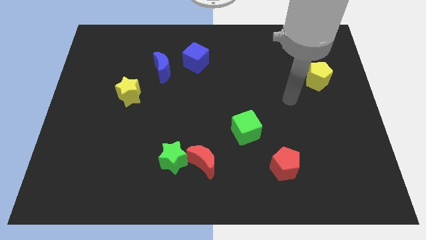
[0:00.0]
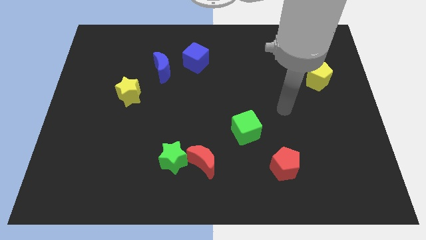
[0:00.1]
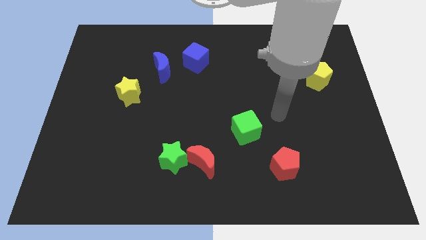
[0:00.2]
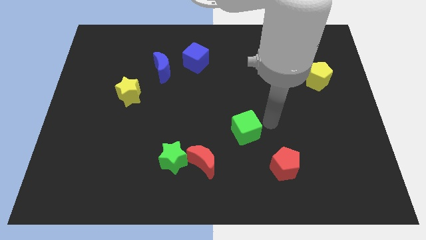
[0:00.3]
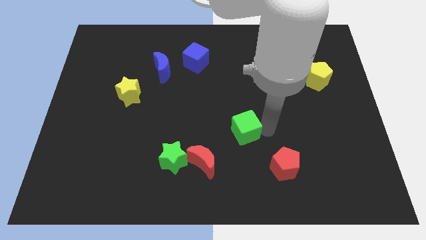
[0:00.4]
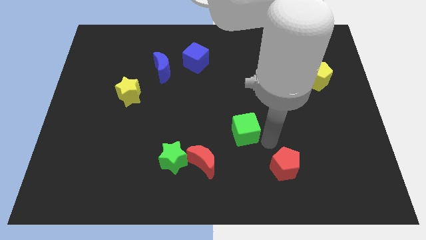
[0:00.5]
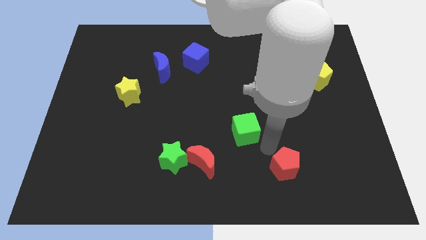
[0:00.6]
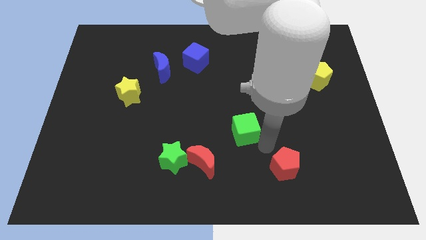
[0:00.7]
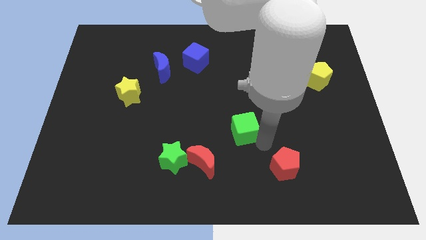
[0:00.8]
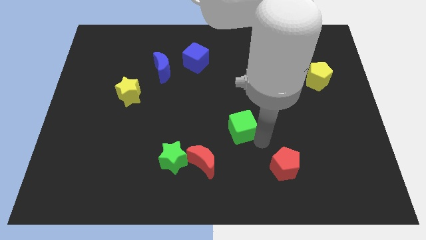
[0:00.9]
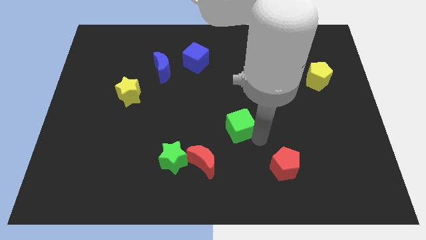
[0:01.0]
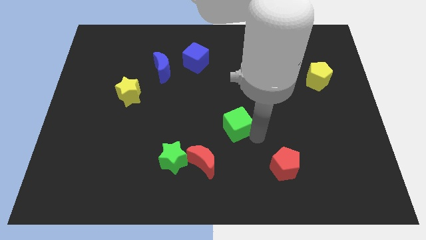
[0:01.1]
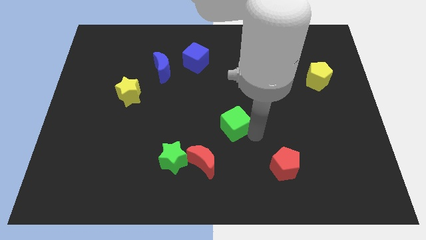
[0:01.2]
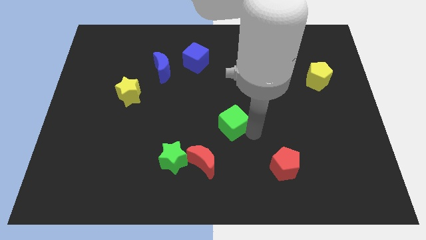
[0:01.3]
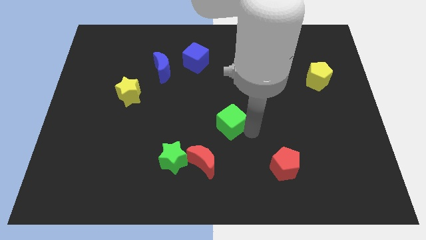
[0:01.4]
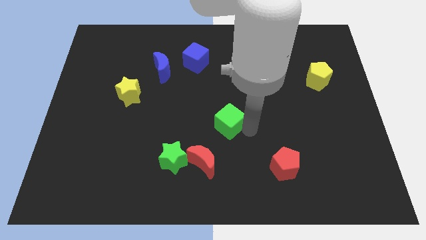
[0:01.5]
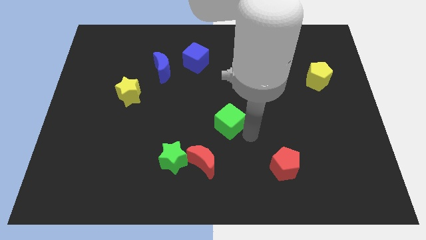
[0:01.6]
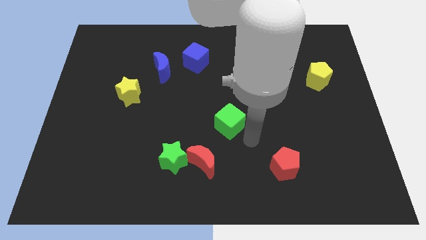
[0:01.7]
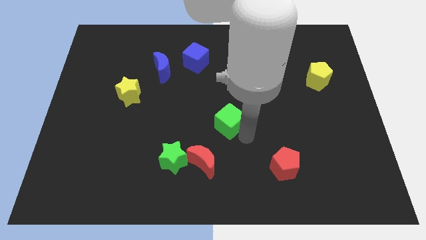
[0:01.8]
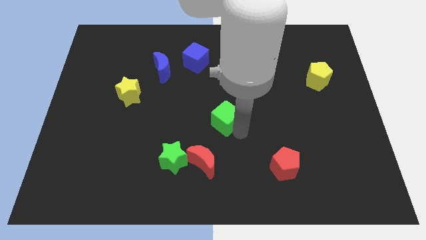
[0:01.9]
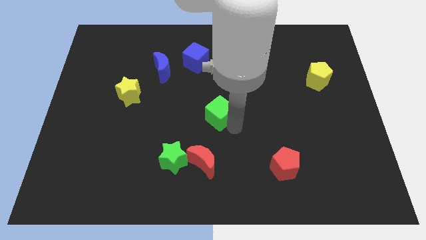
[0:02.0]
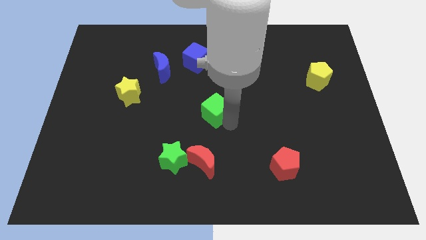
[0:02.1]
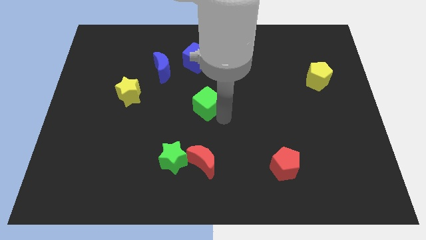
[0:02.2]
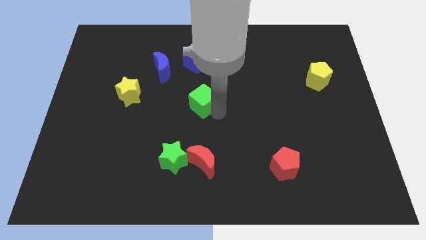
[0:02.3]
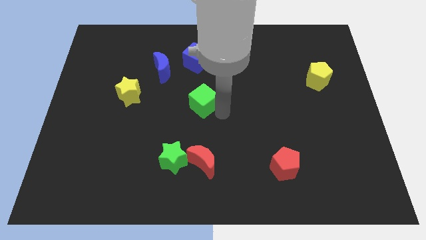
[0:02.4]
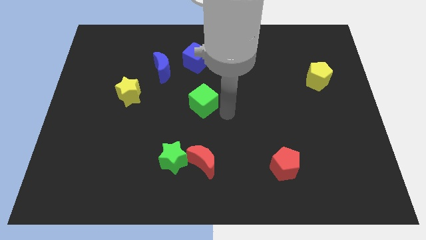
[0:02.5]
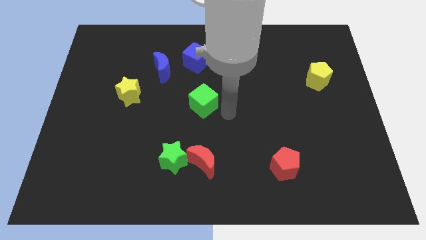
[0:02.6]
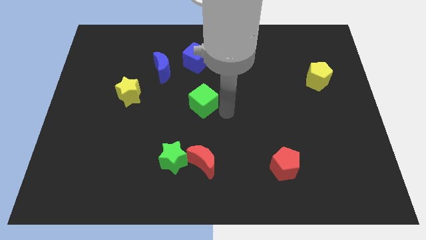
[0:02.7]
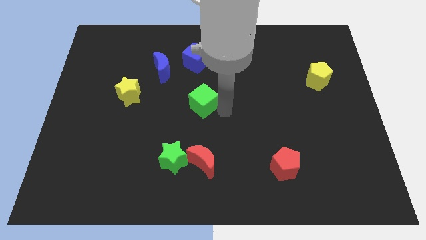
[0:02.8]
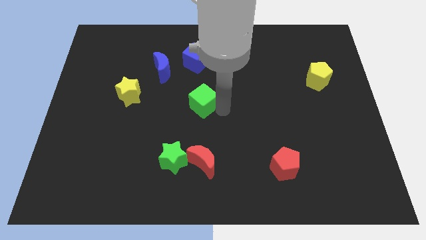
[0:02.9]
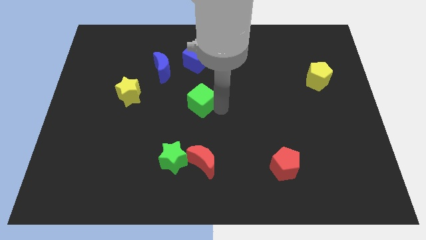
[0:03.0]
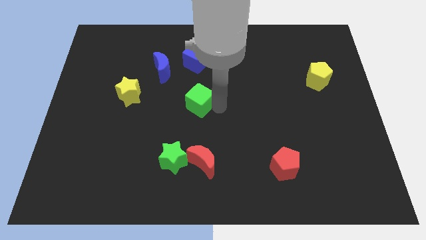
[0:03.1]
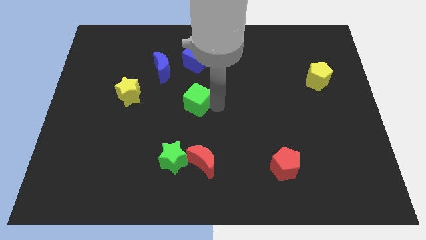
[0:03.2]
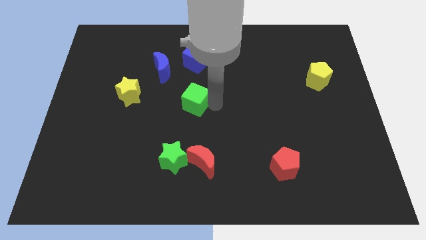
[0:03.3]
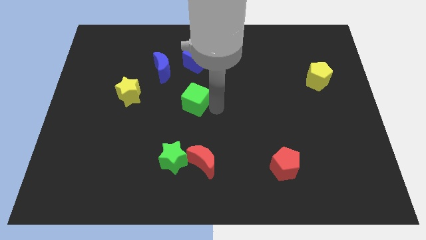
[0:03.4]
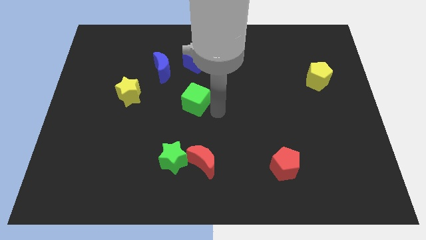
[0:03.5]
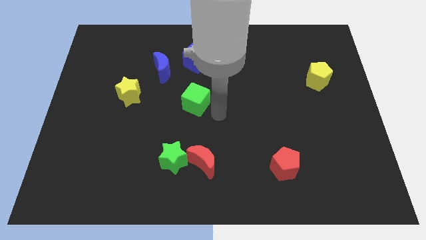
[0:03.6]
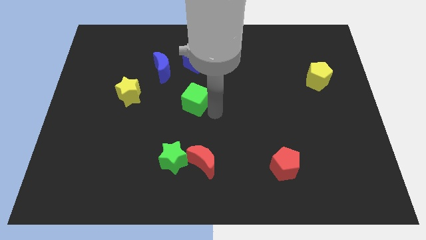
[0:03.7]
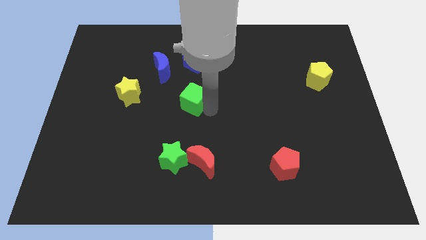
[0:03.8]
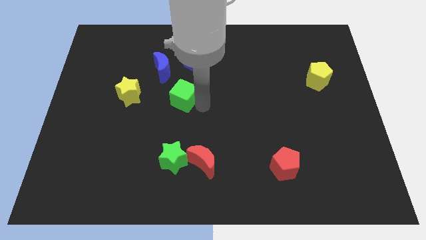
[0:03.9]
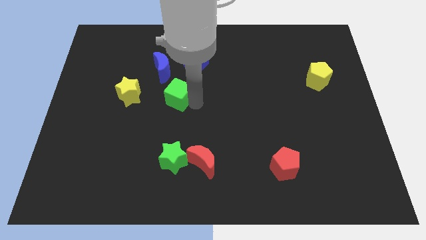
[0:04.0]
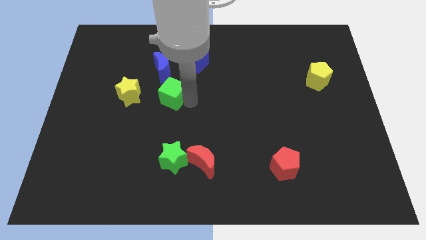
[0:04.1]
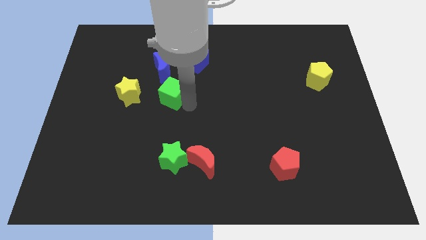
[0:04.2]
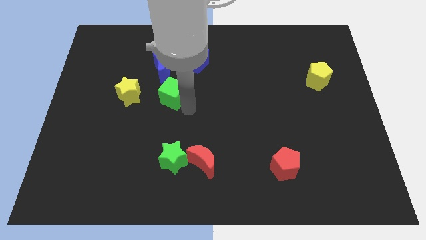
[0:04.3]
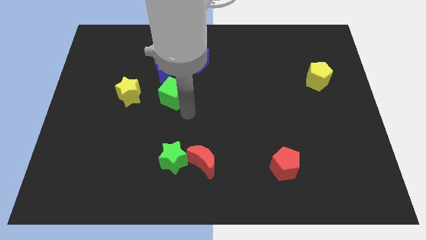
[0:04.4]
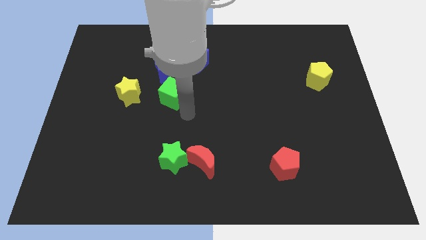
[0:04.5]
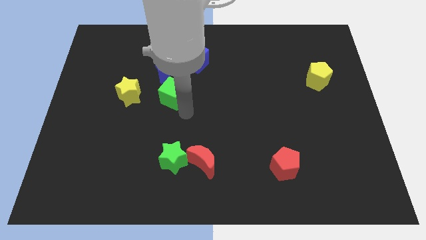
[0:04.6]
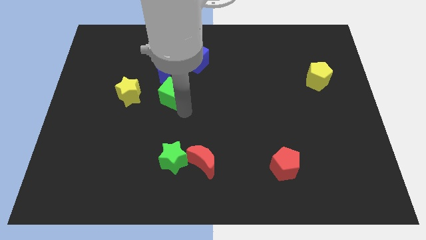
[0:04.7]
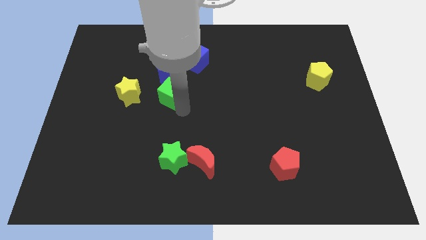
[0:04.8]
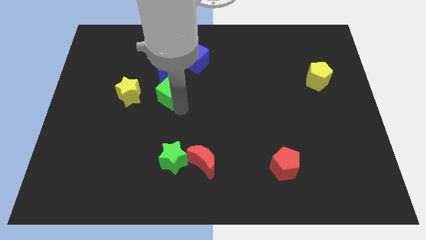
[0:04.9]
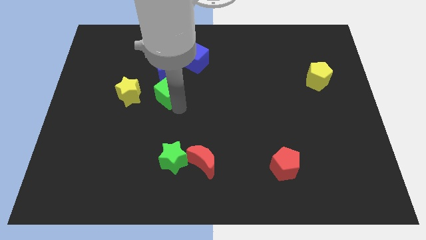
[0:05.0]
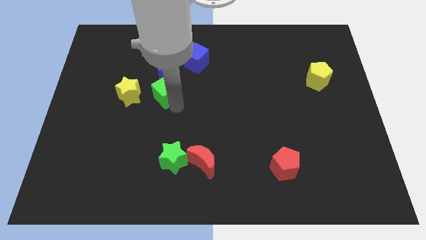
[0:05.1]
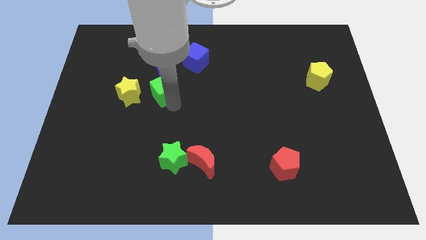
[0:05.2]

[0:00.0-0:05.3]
move the green cube up and then to the left

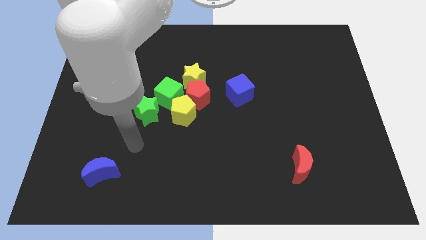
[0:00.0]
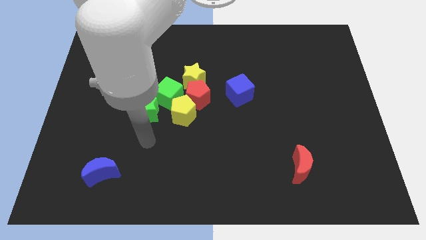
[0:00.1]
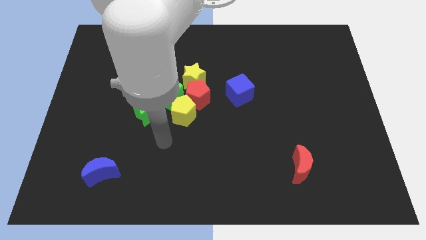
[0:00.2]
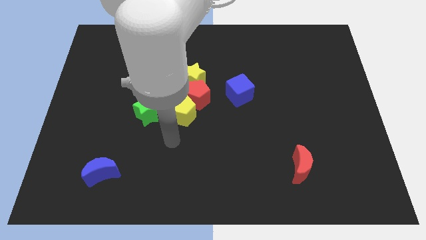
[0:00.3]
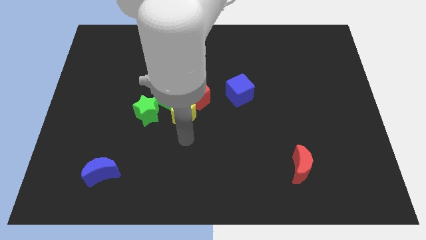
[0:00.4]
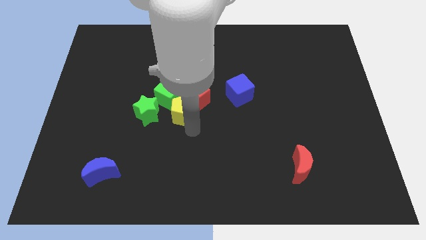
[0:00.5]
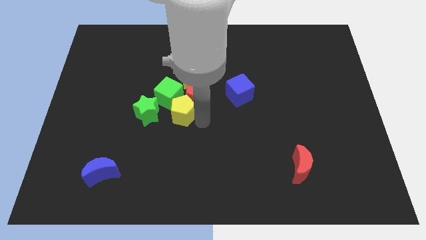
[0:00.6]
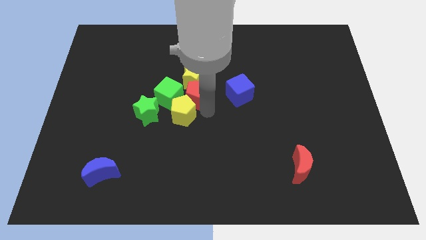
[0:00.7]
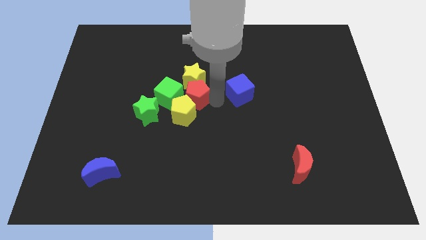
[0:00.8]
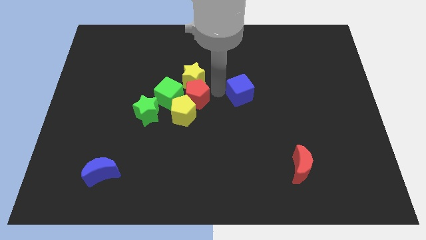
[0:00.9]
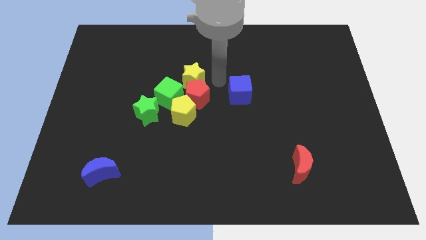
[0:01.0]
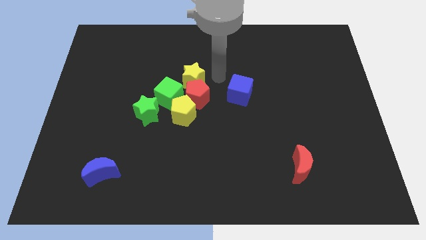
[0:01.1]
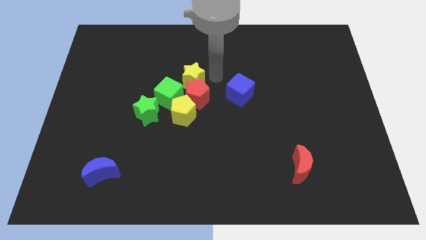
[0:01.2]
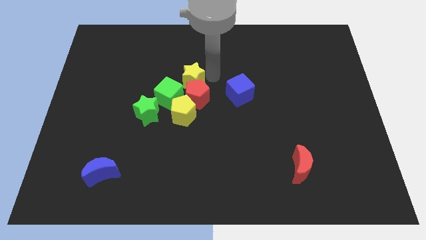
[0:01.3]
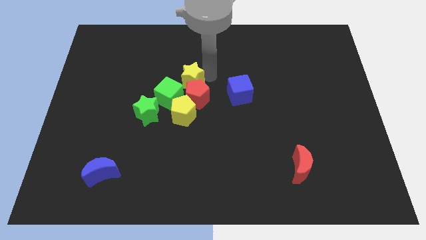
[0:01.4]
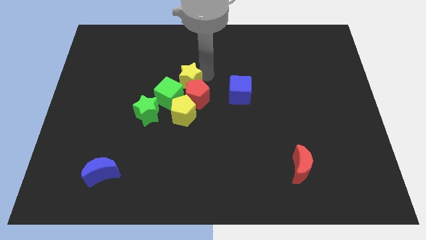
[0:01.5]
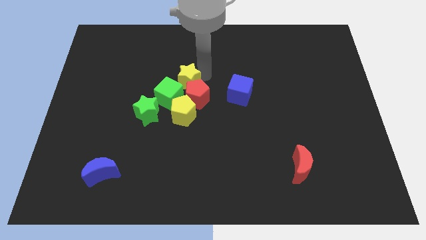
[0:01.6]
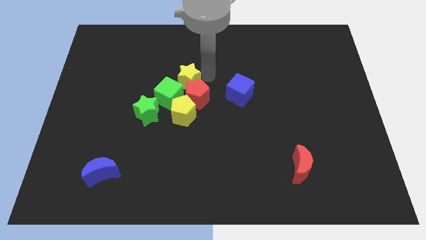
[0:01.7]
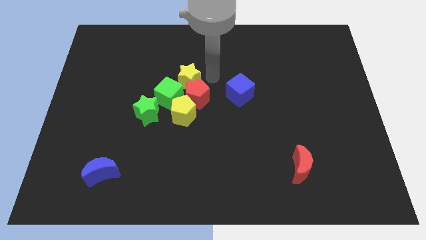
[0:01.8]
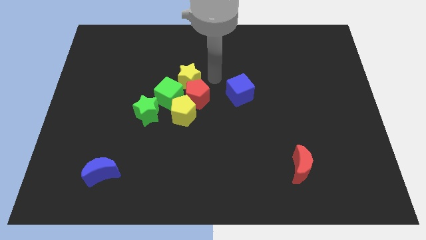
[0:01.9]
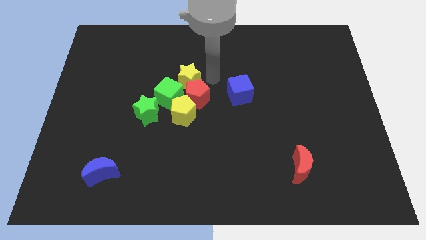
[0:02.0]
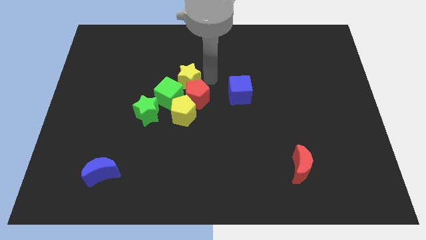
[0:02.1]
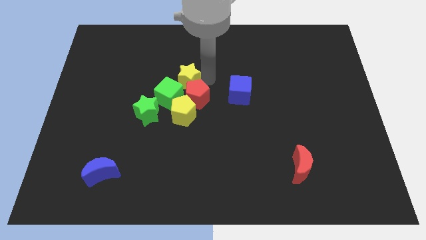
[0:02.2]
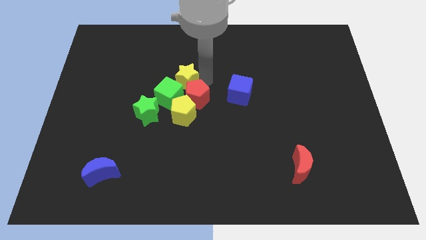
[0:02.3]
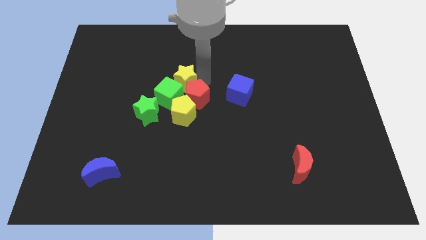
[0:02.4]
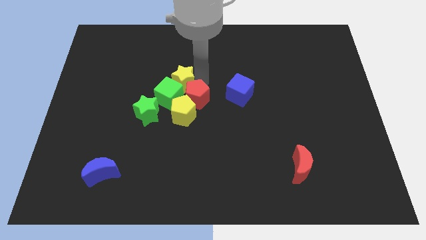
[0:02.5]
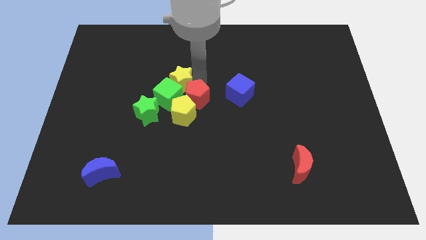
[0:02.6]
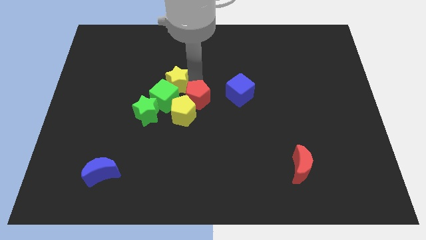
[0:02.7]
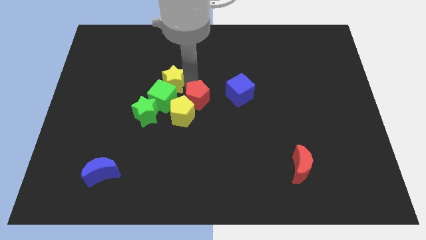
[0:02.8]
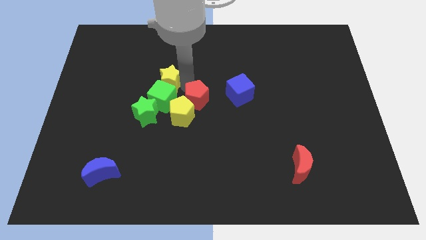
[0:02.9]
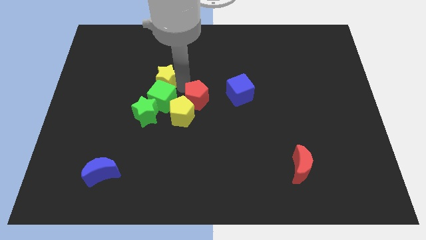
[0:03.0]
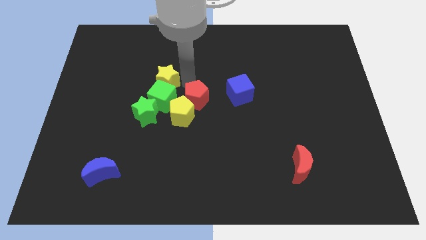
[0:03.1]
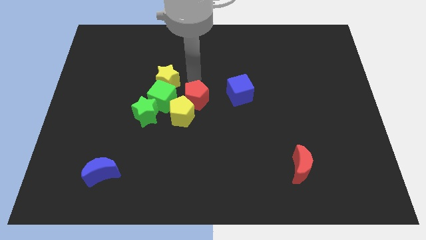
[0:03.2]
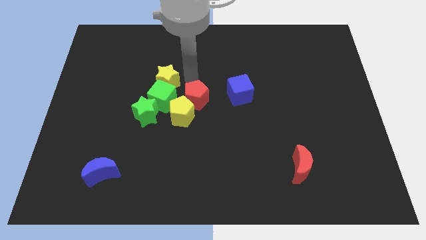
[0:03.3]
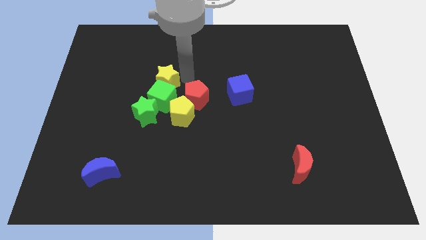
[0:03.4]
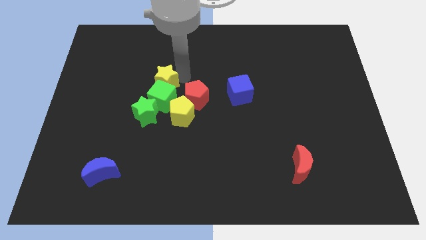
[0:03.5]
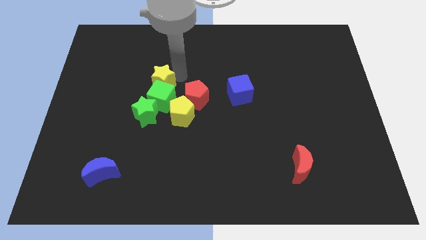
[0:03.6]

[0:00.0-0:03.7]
move the yellow star somewhat to the left
